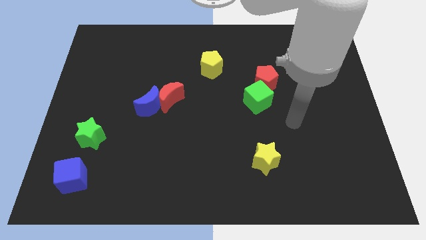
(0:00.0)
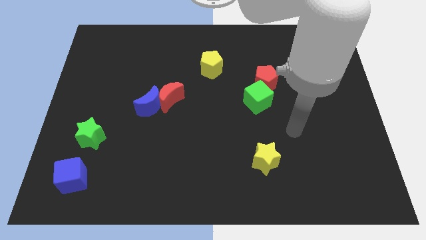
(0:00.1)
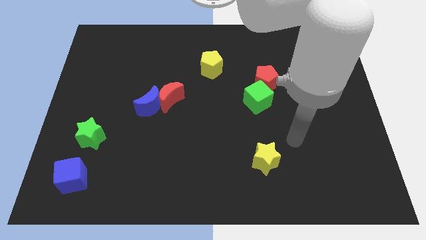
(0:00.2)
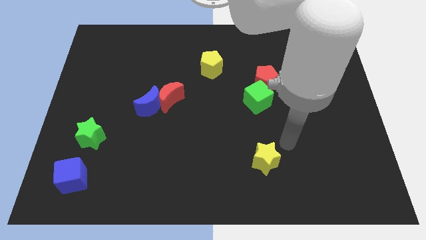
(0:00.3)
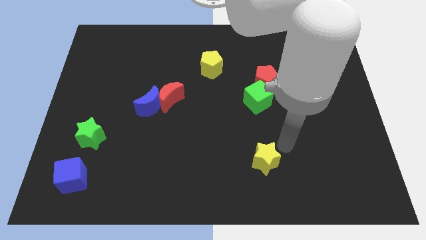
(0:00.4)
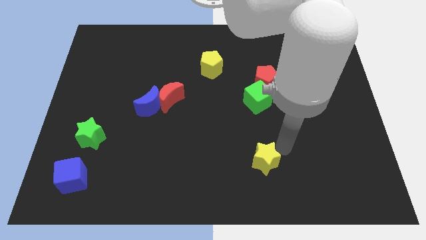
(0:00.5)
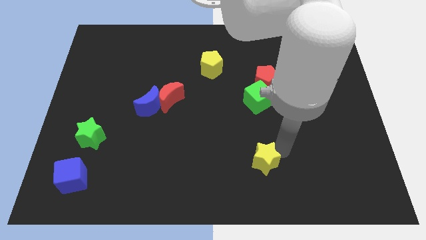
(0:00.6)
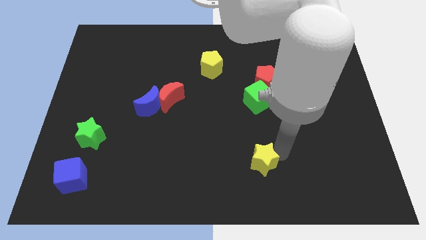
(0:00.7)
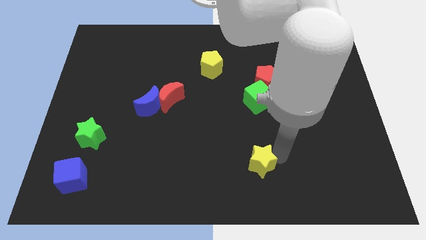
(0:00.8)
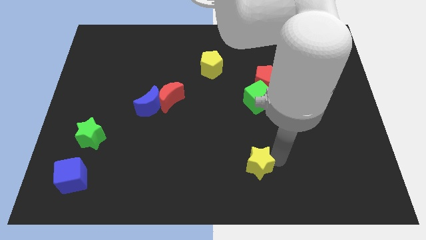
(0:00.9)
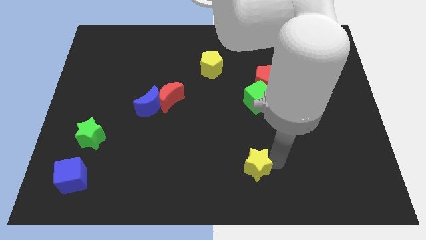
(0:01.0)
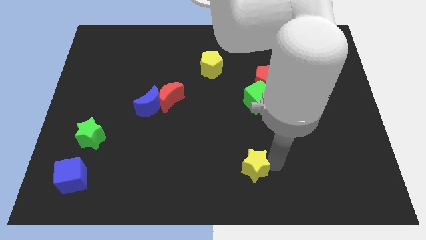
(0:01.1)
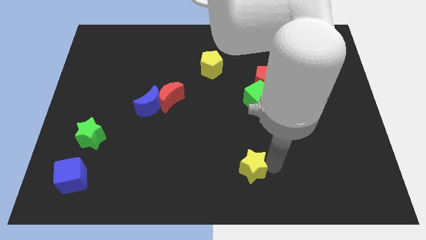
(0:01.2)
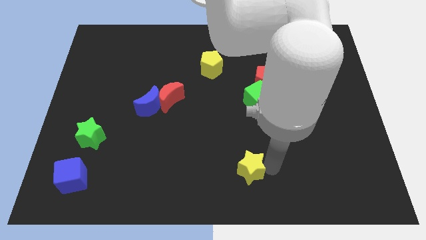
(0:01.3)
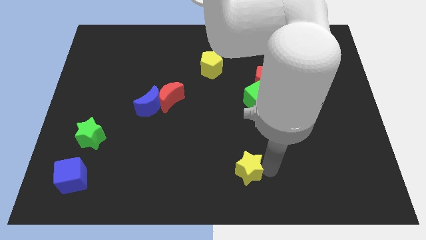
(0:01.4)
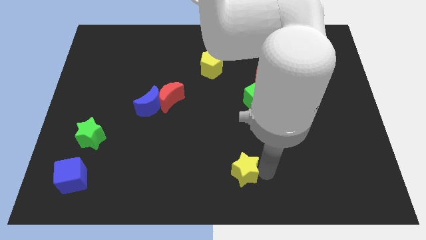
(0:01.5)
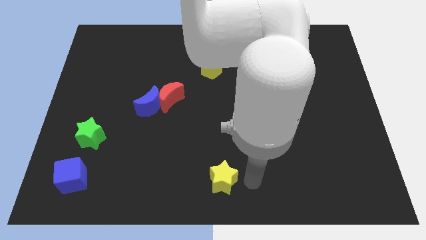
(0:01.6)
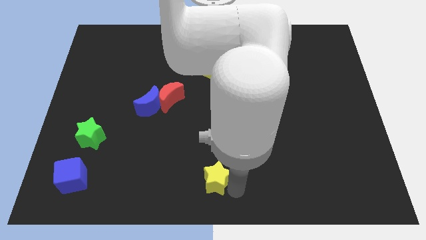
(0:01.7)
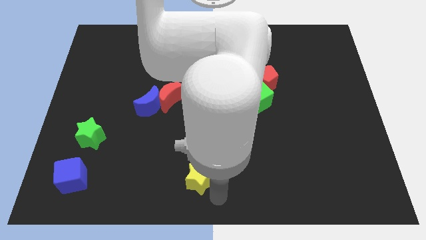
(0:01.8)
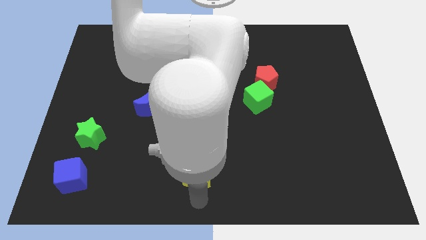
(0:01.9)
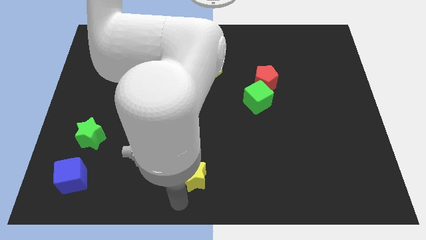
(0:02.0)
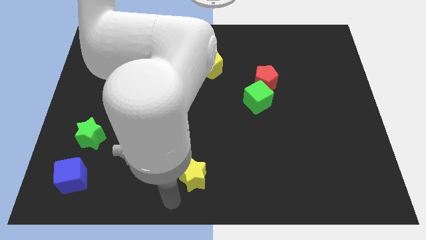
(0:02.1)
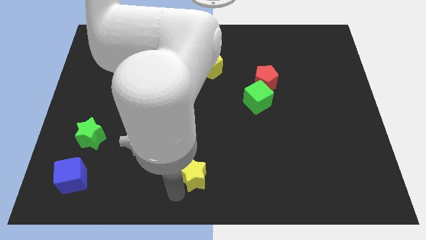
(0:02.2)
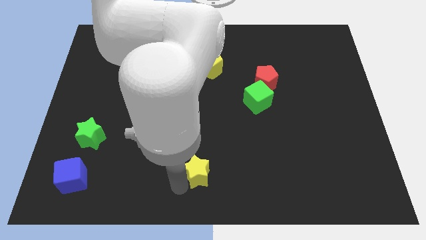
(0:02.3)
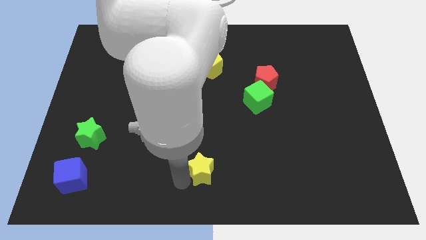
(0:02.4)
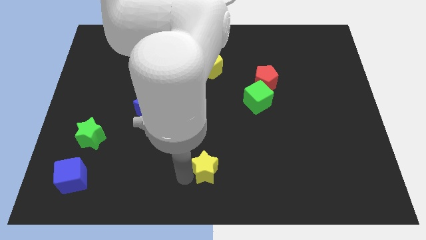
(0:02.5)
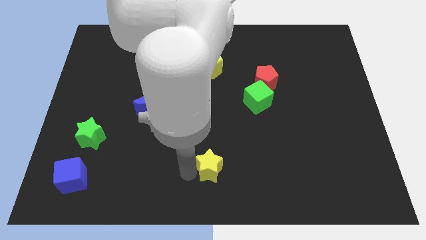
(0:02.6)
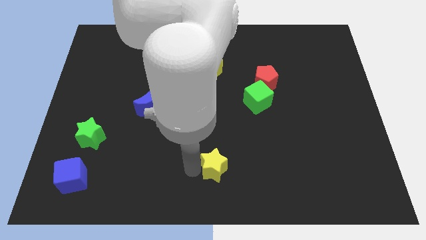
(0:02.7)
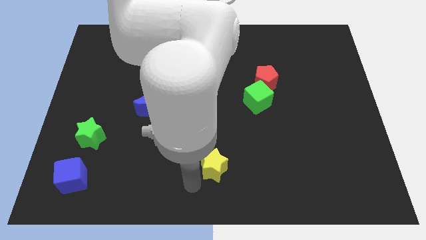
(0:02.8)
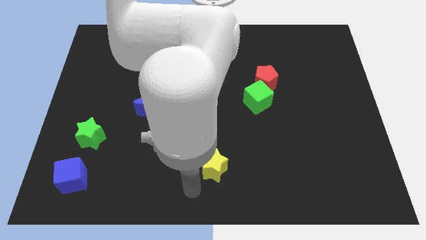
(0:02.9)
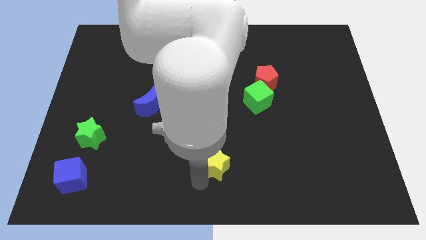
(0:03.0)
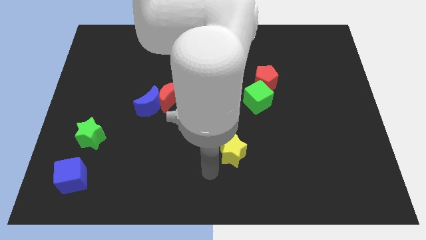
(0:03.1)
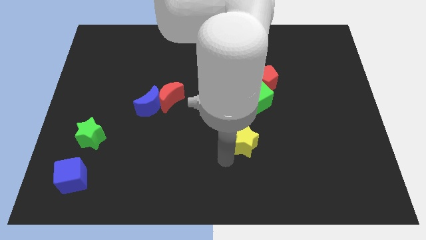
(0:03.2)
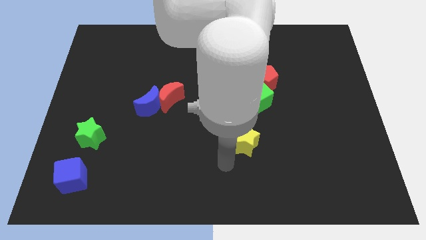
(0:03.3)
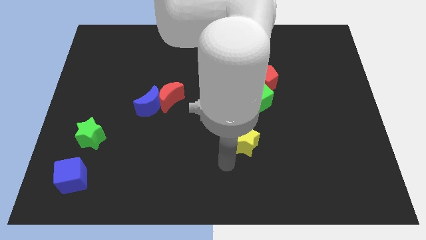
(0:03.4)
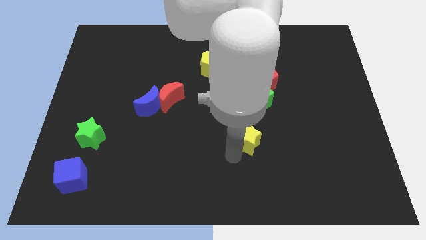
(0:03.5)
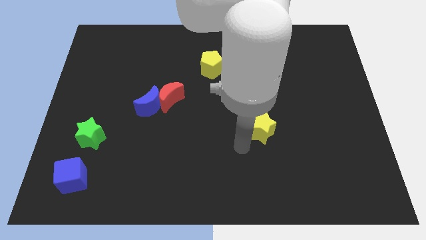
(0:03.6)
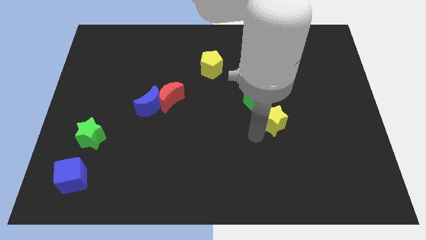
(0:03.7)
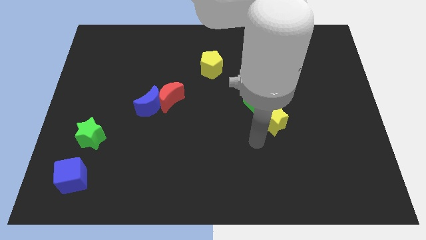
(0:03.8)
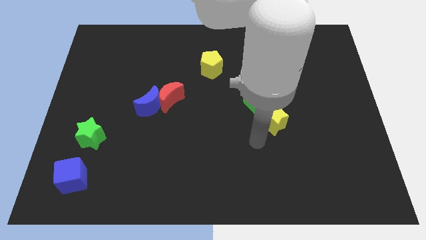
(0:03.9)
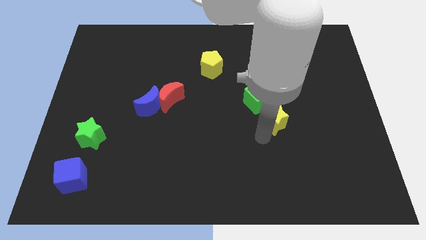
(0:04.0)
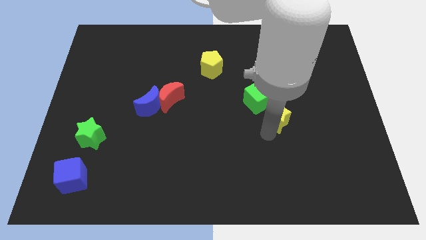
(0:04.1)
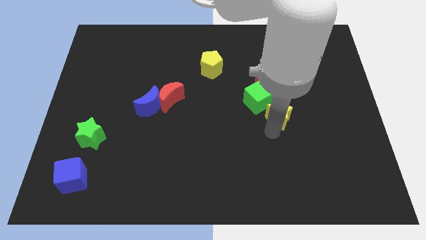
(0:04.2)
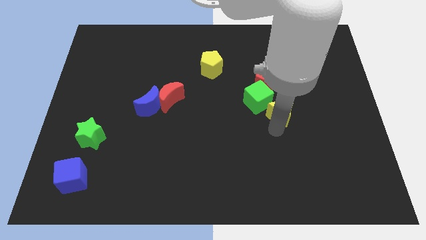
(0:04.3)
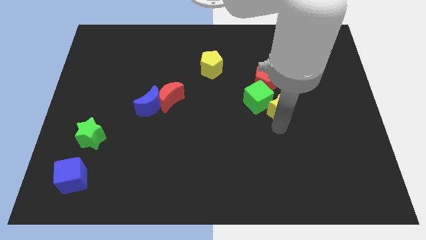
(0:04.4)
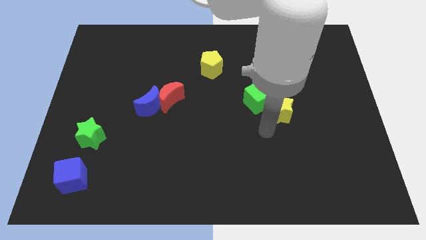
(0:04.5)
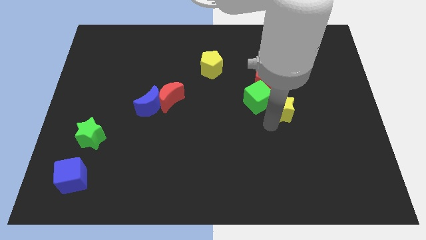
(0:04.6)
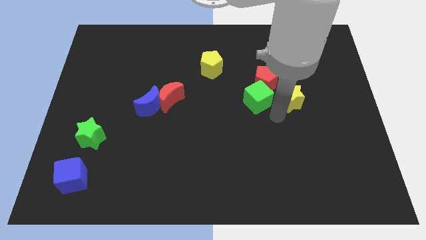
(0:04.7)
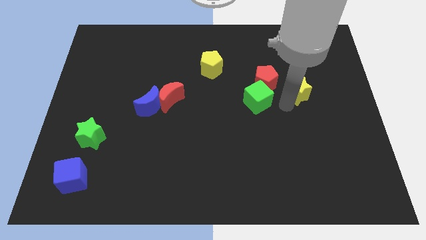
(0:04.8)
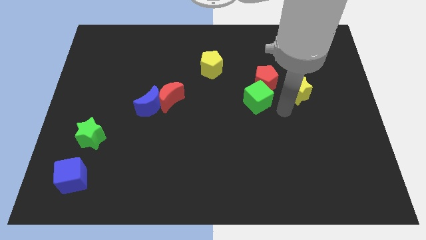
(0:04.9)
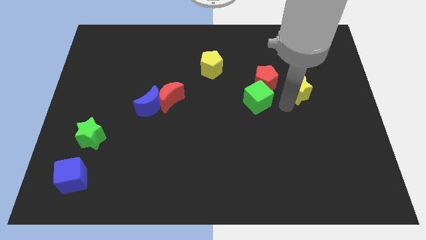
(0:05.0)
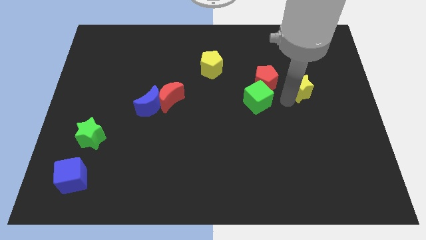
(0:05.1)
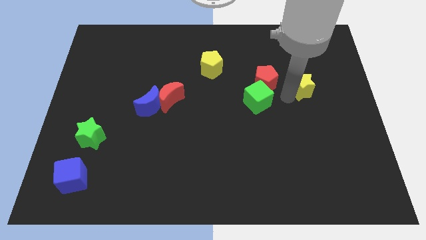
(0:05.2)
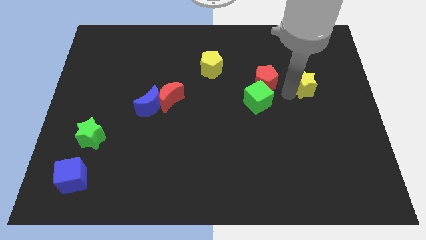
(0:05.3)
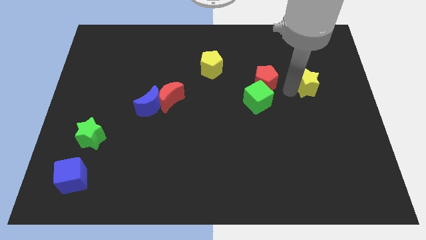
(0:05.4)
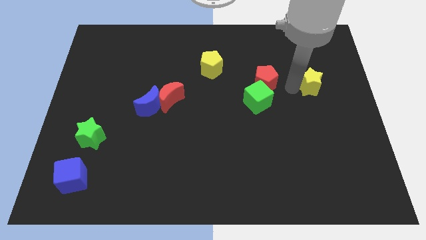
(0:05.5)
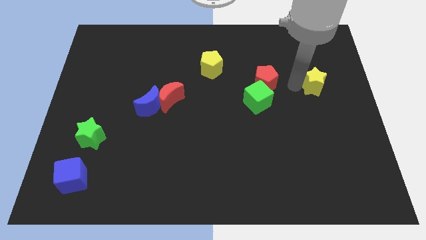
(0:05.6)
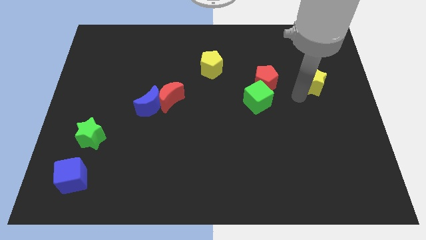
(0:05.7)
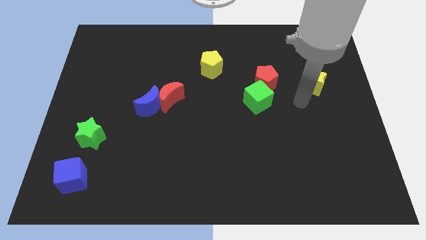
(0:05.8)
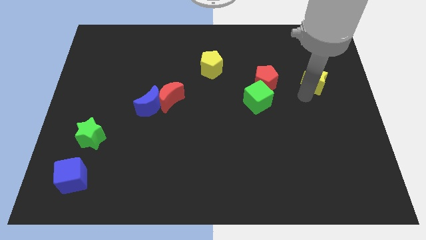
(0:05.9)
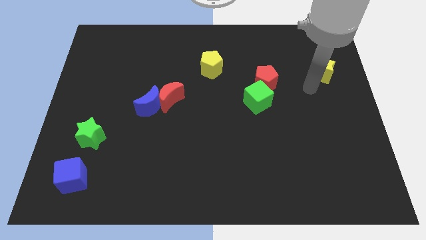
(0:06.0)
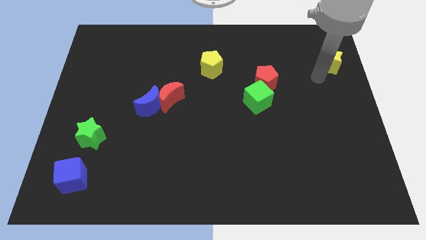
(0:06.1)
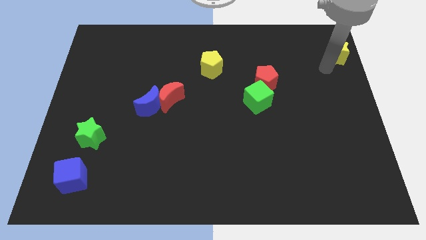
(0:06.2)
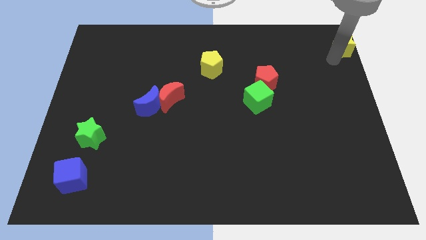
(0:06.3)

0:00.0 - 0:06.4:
push the yellow star to the top right corner

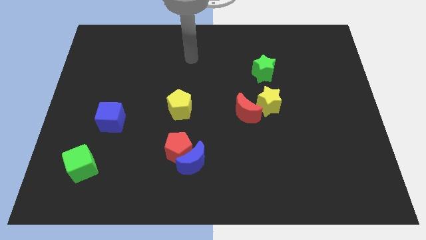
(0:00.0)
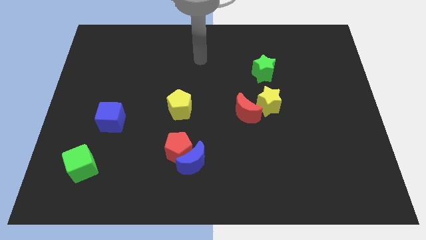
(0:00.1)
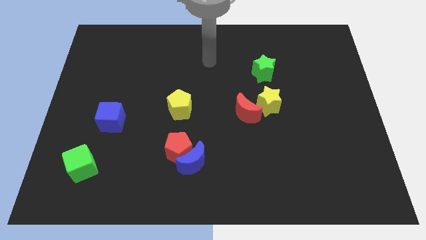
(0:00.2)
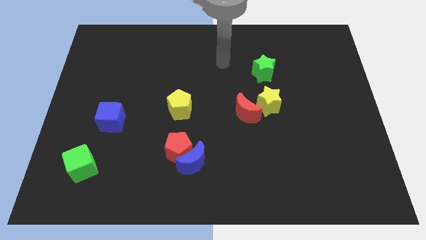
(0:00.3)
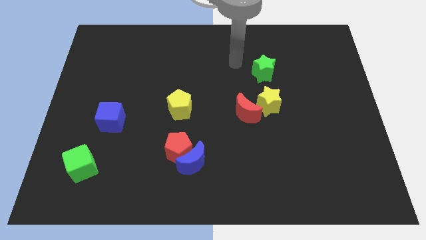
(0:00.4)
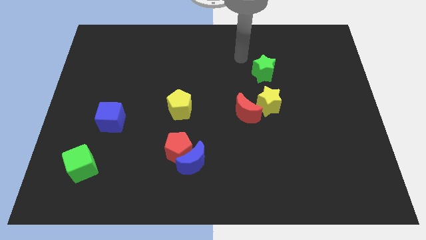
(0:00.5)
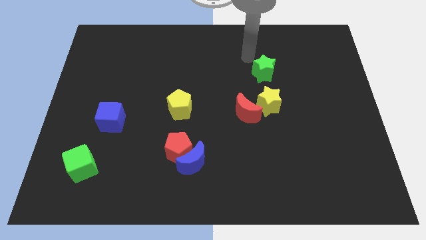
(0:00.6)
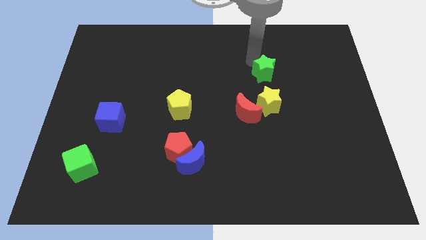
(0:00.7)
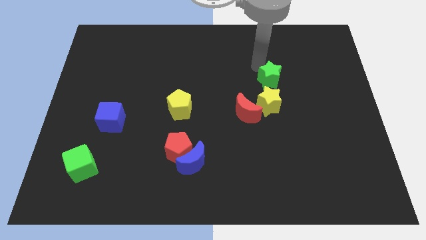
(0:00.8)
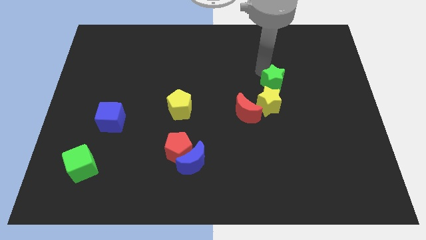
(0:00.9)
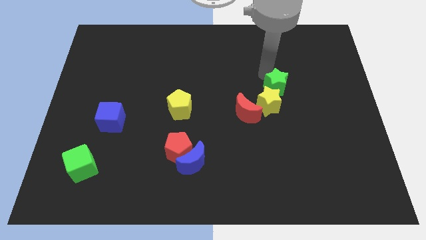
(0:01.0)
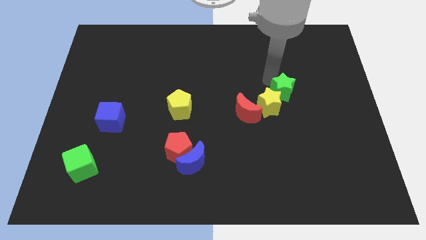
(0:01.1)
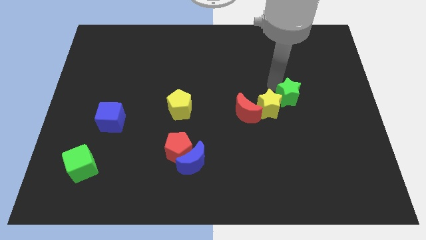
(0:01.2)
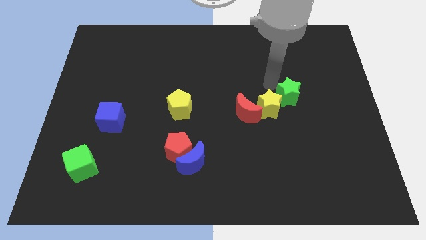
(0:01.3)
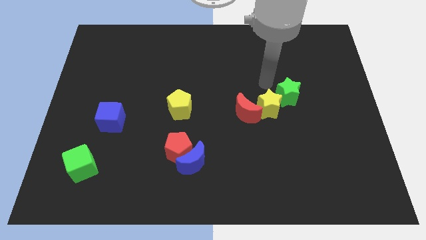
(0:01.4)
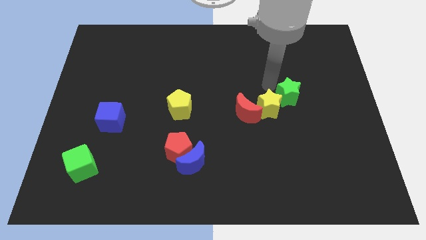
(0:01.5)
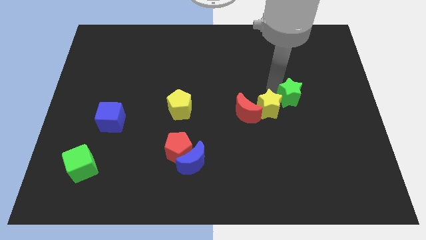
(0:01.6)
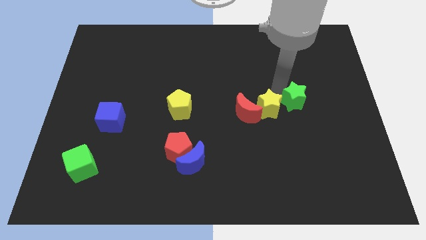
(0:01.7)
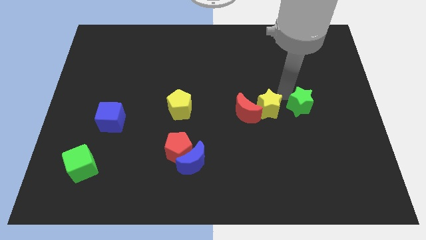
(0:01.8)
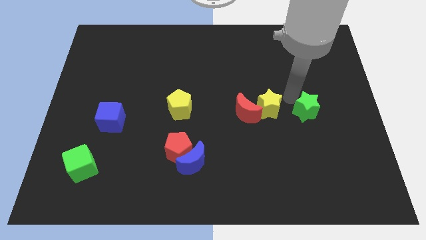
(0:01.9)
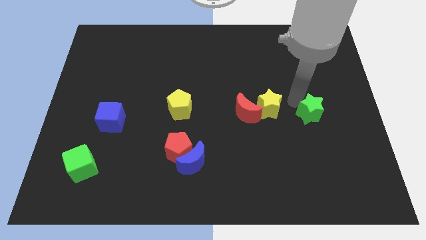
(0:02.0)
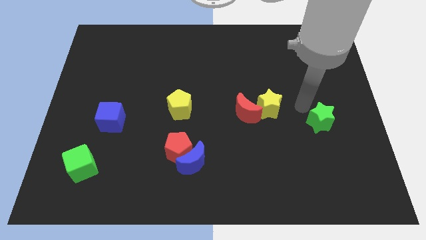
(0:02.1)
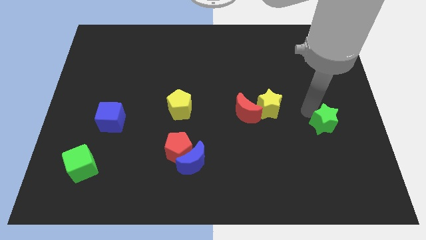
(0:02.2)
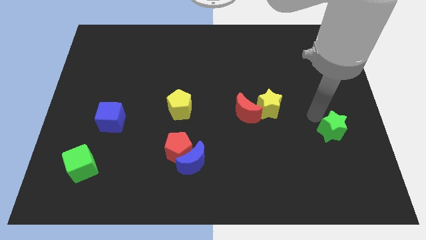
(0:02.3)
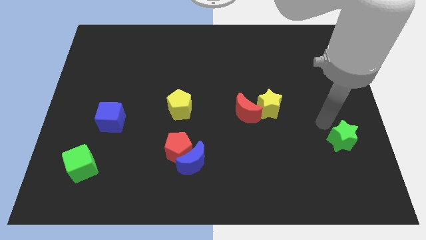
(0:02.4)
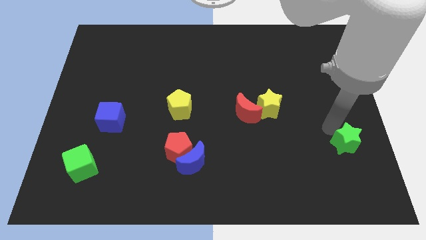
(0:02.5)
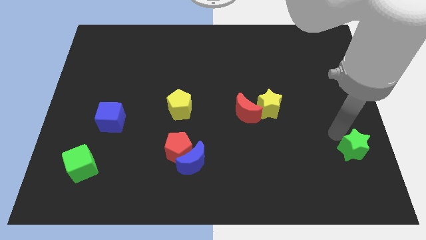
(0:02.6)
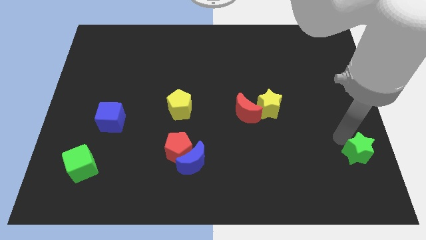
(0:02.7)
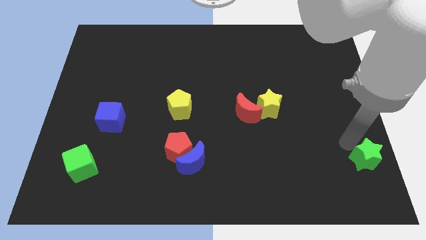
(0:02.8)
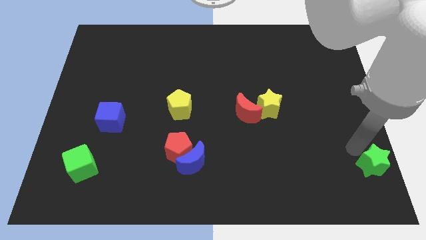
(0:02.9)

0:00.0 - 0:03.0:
push the green star to the bottom right of the board
